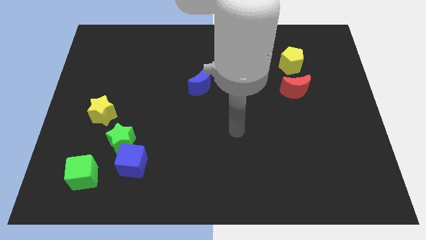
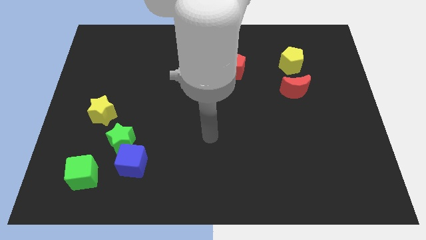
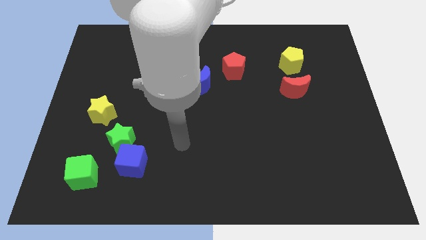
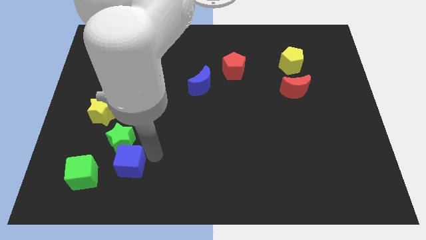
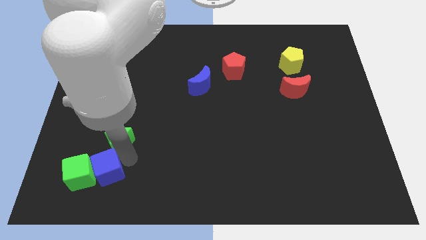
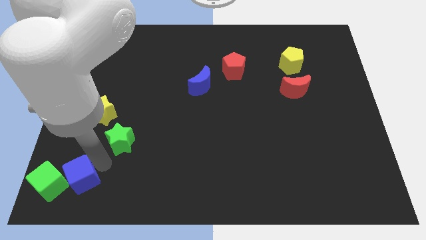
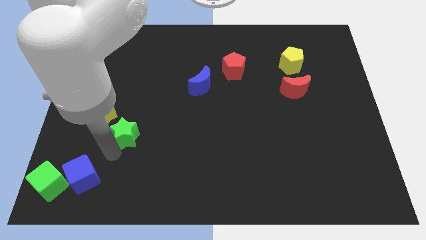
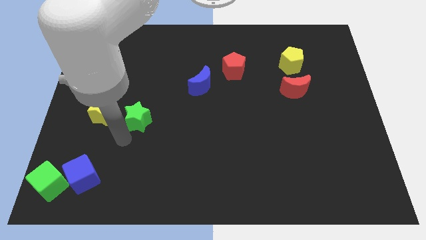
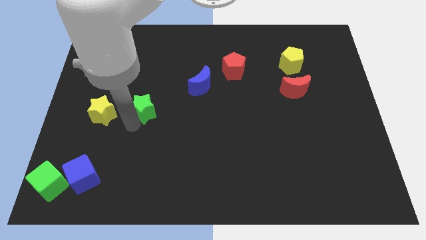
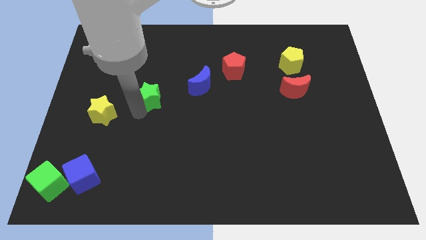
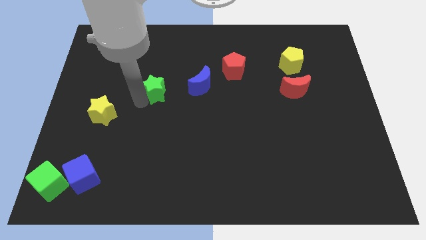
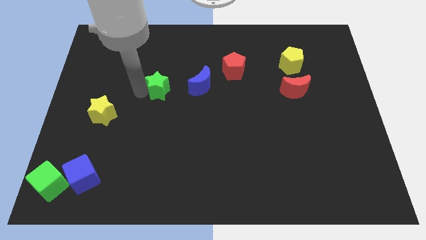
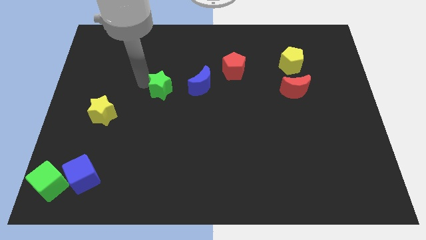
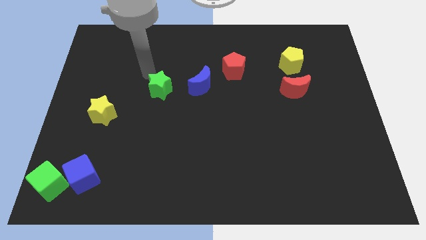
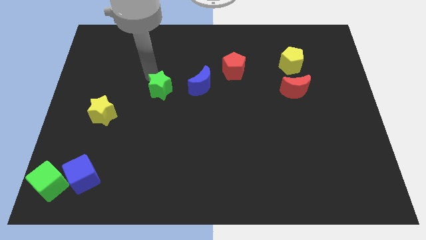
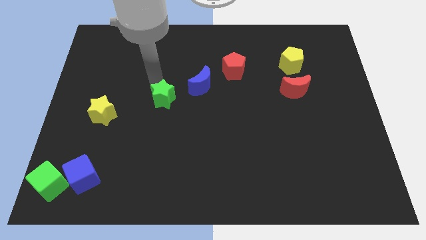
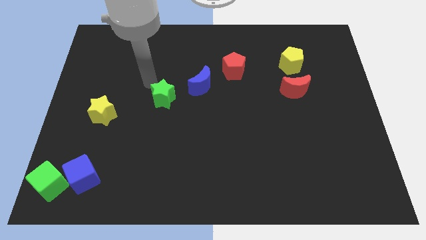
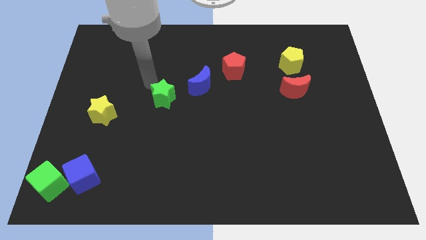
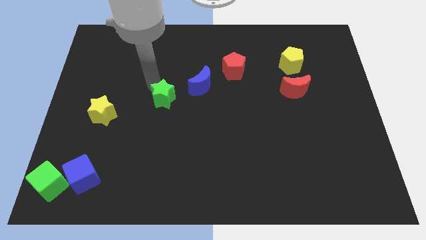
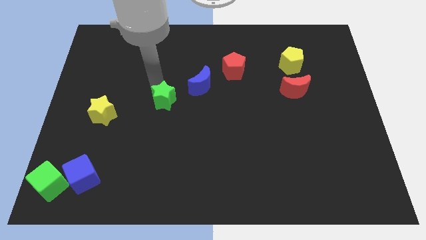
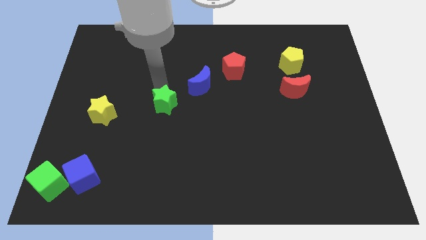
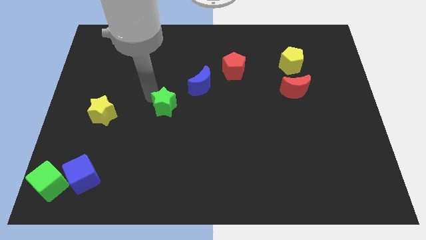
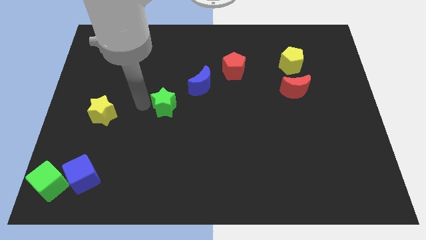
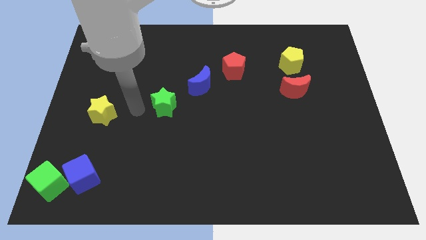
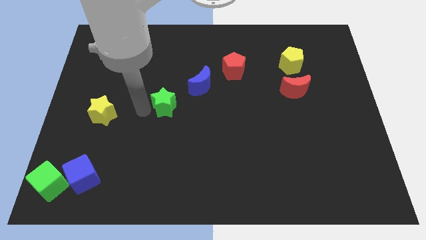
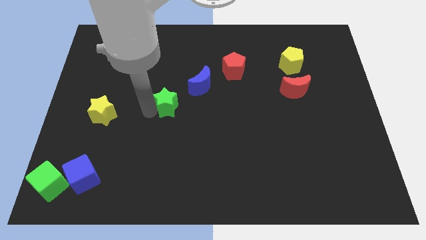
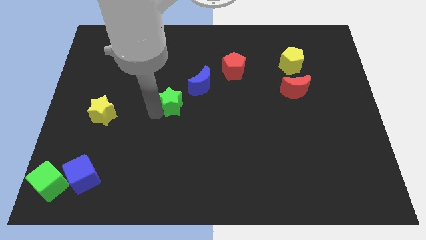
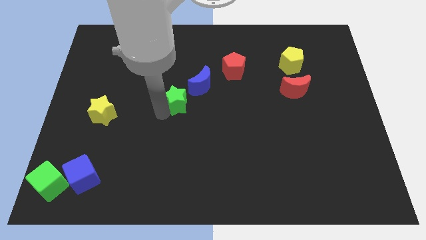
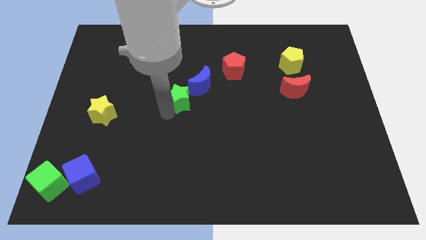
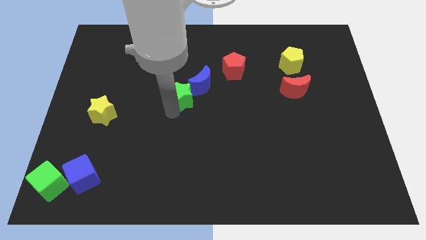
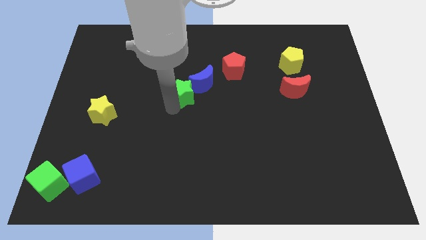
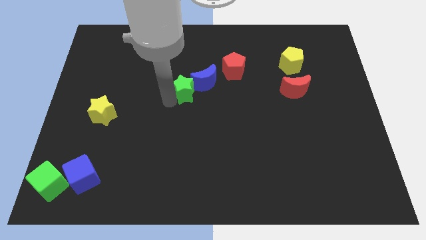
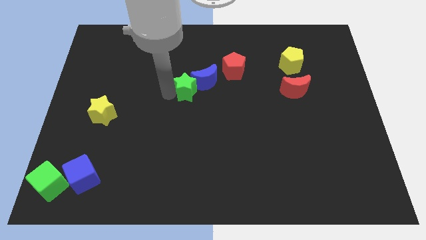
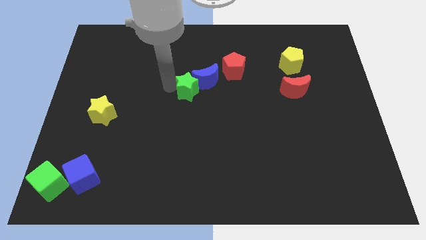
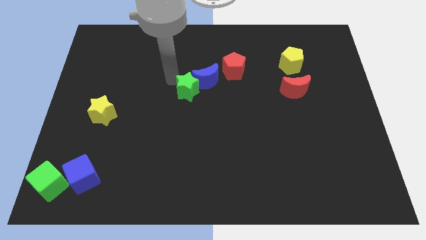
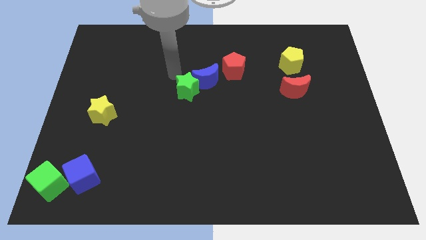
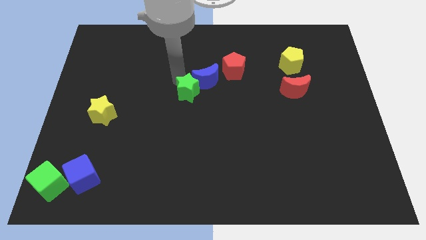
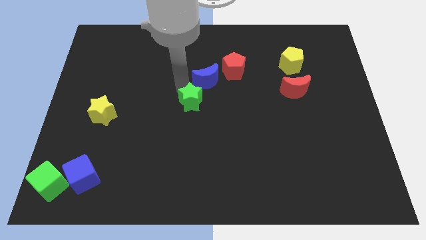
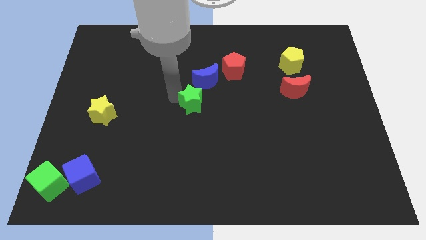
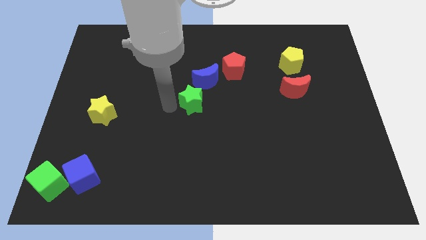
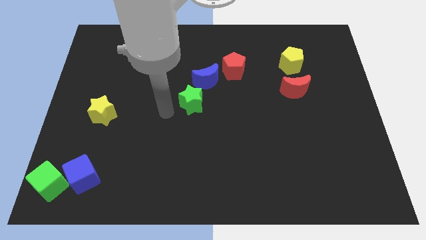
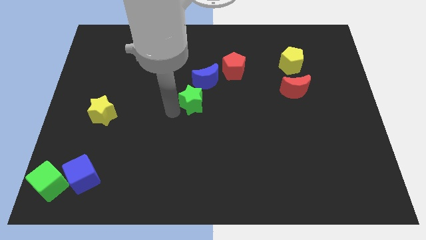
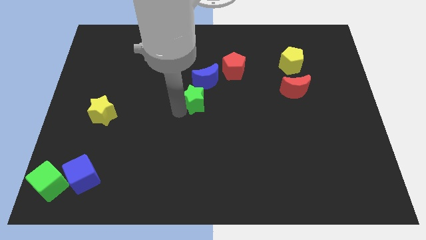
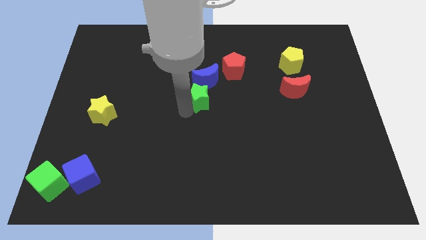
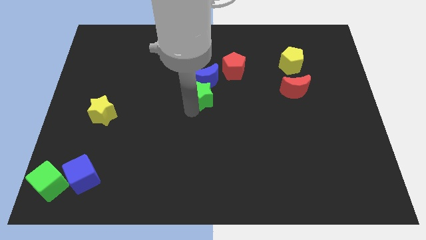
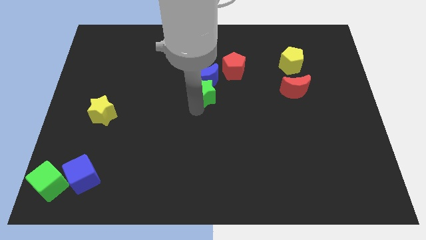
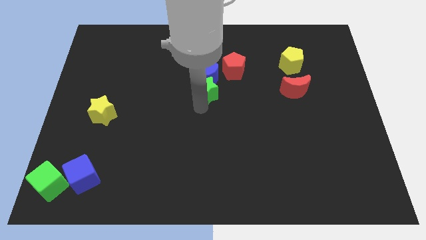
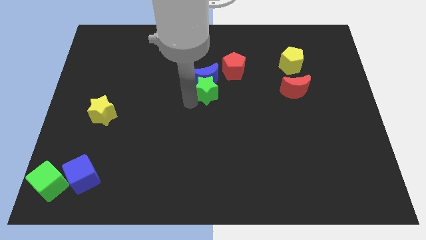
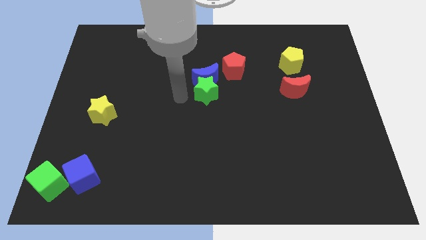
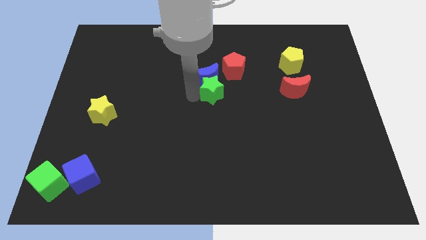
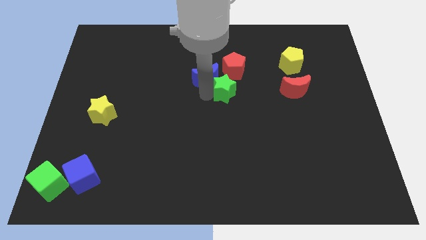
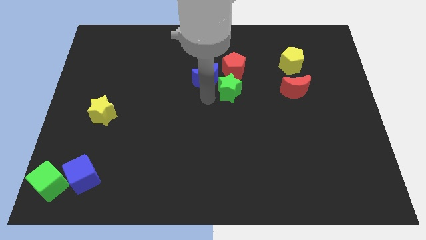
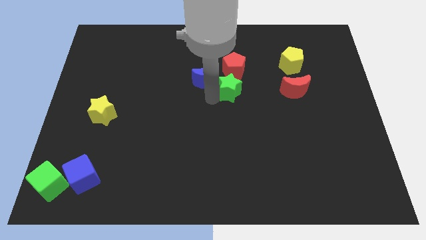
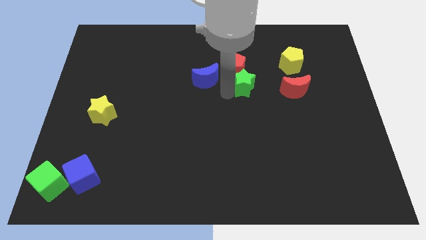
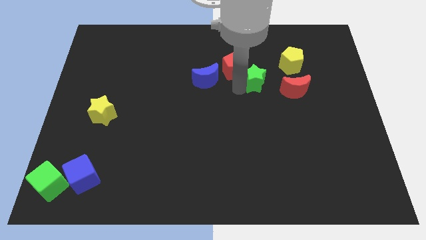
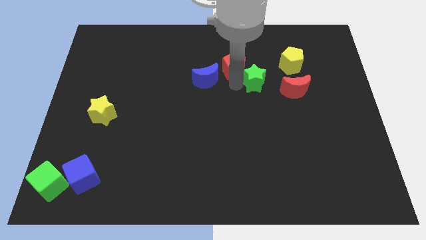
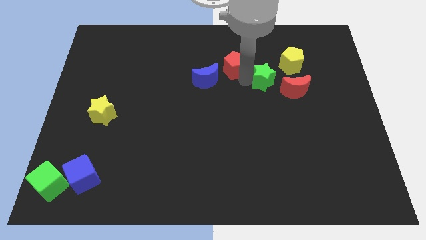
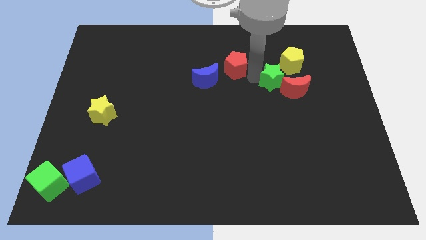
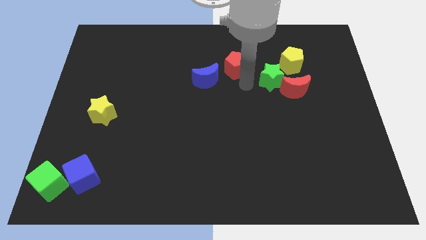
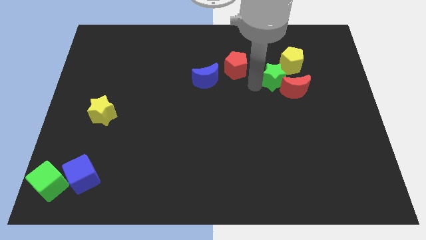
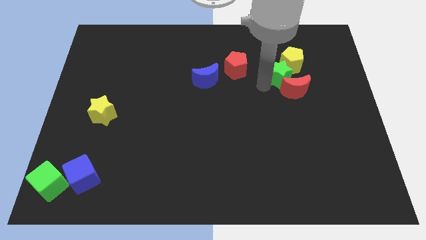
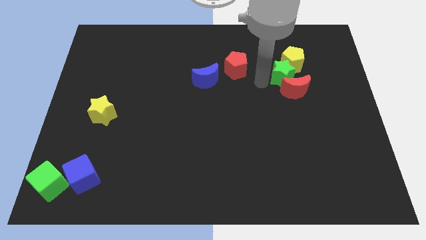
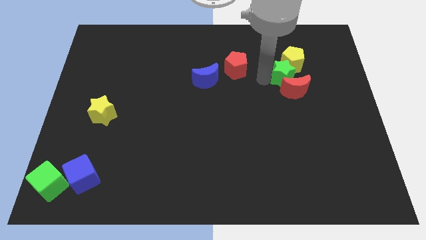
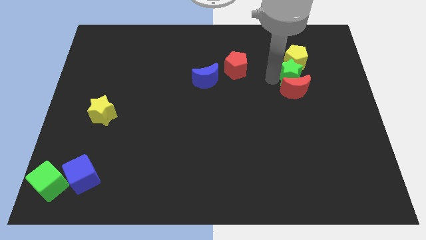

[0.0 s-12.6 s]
slide the green star to the top right of the red moon

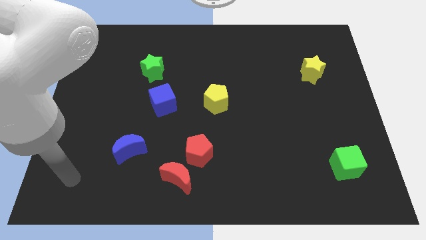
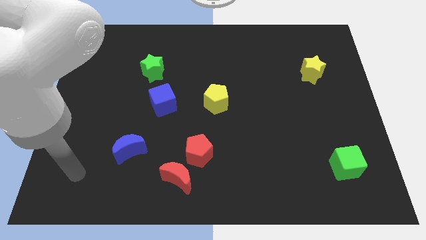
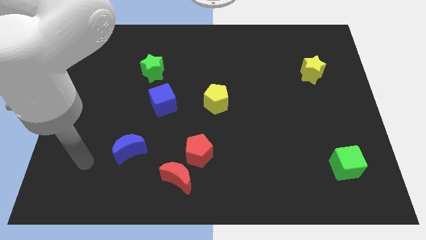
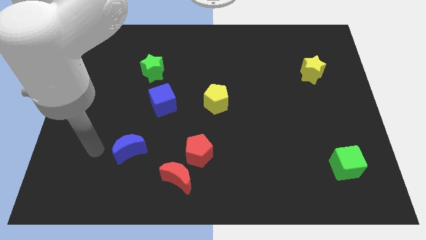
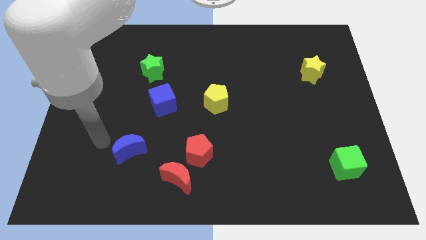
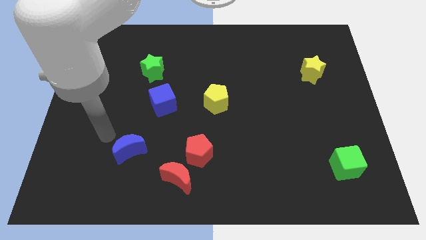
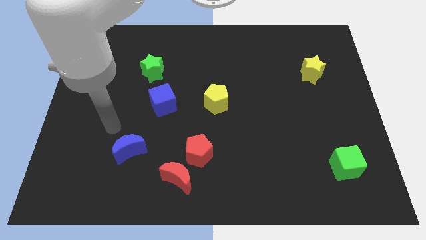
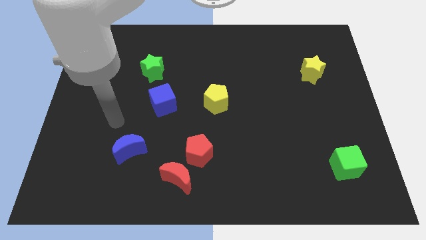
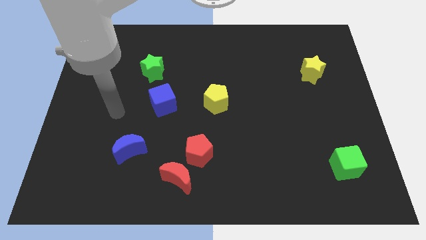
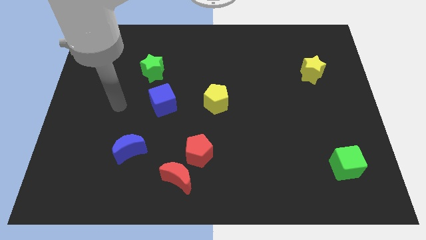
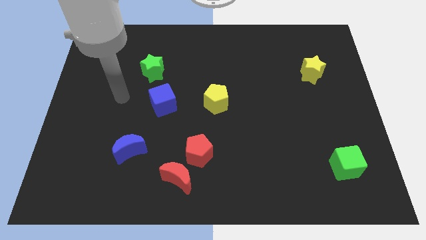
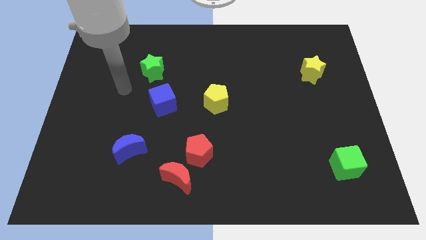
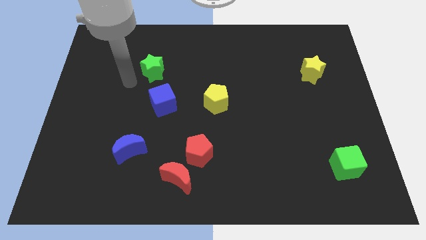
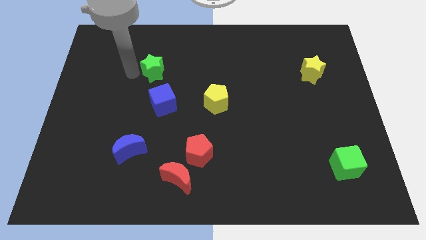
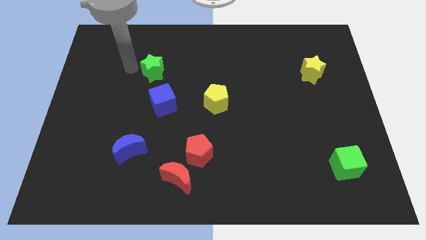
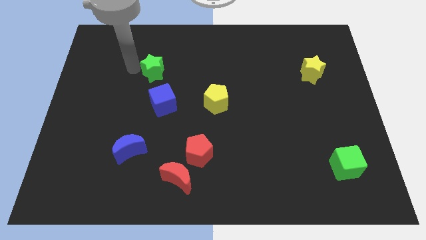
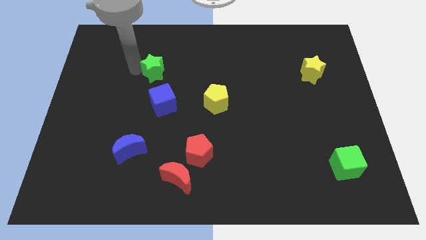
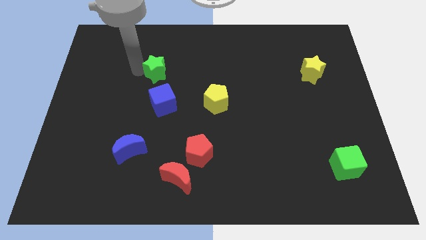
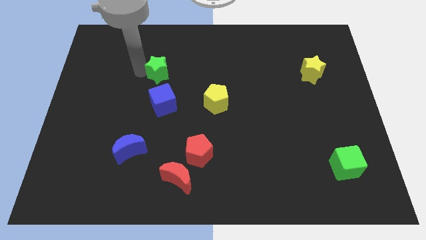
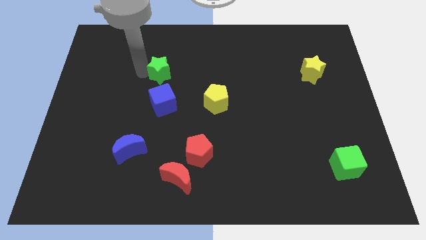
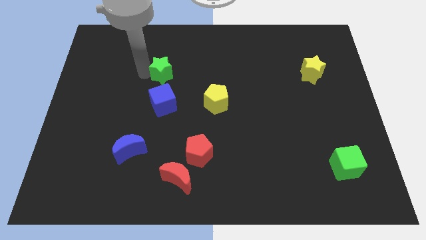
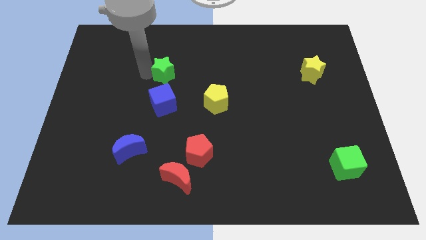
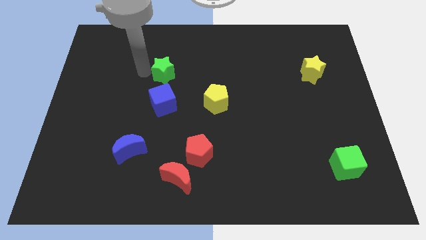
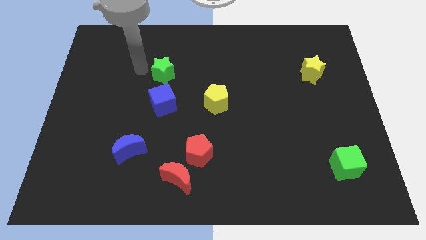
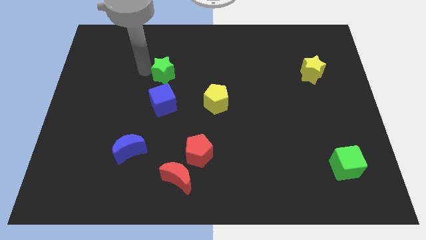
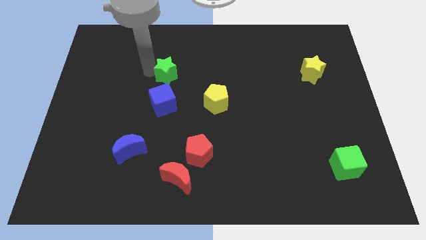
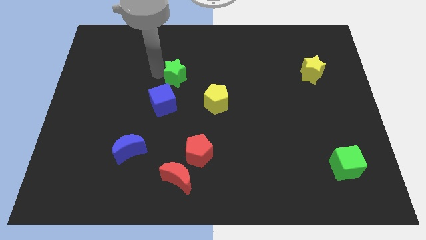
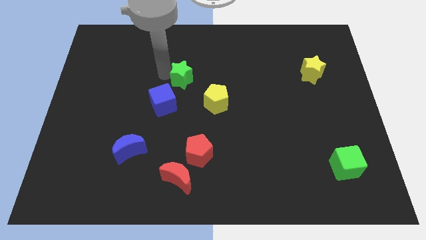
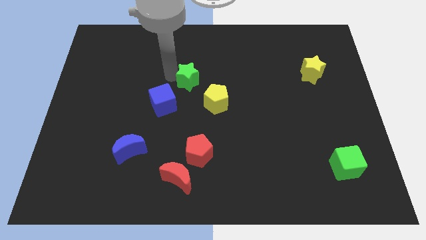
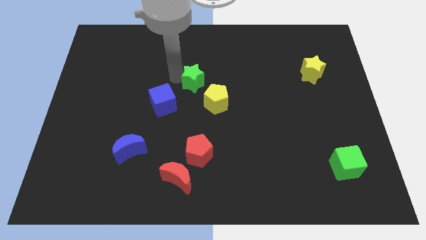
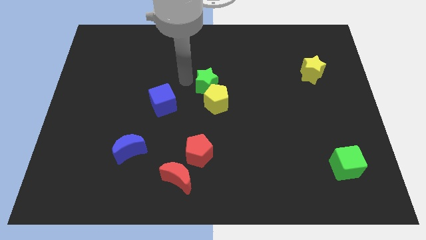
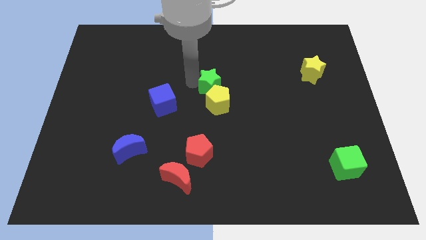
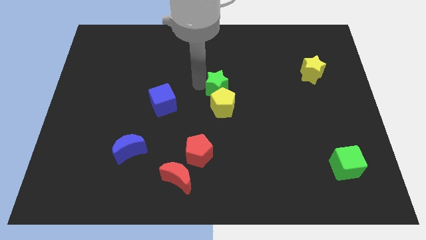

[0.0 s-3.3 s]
move the green star diagonally up and to the right of the yellow pentagon
